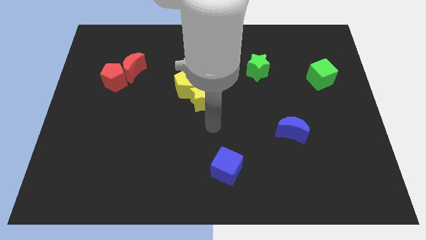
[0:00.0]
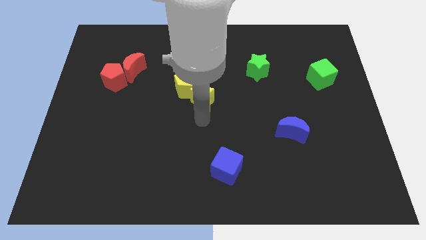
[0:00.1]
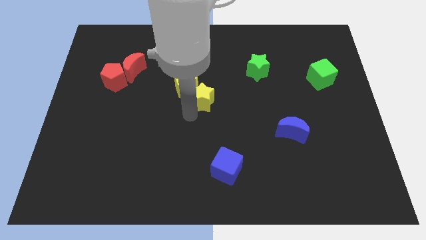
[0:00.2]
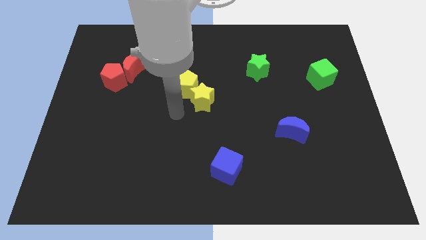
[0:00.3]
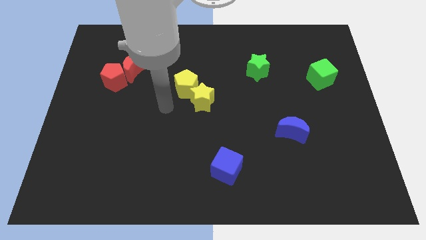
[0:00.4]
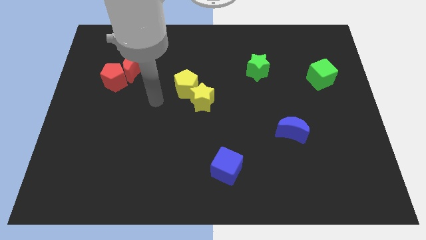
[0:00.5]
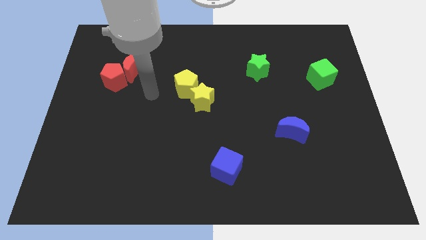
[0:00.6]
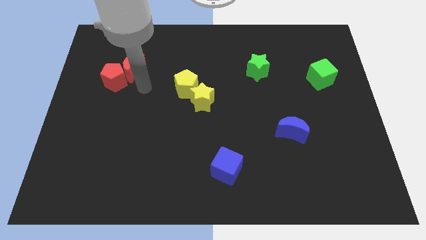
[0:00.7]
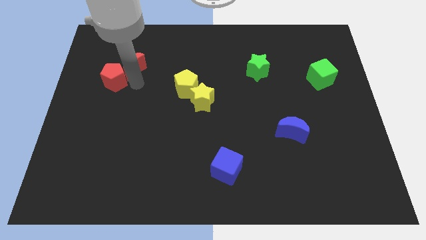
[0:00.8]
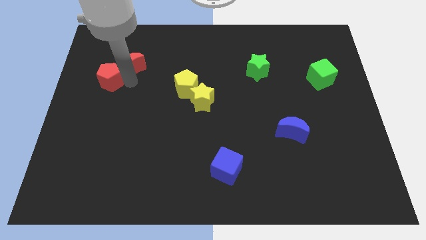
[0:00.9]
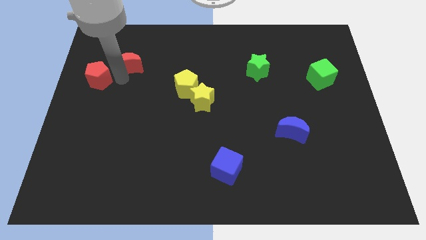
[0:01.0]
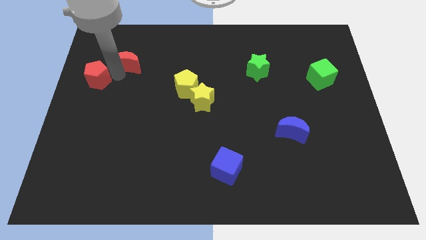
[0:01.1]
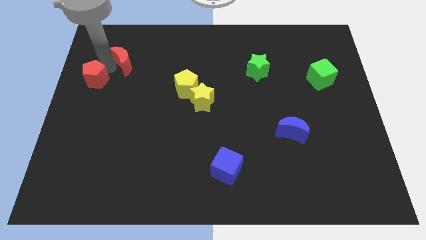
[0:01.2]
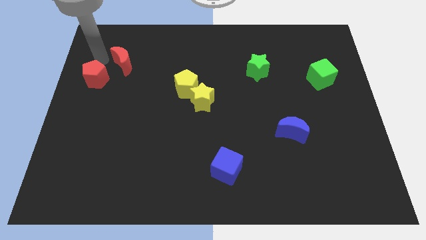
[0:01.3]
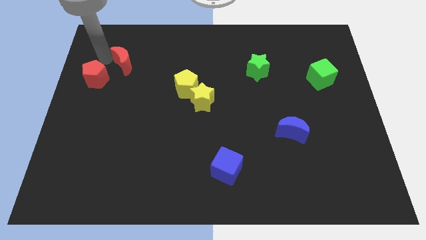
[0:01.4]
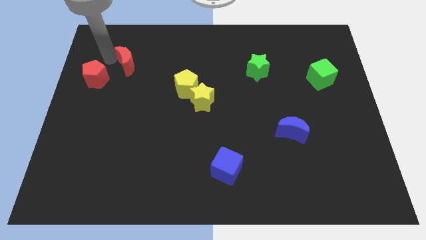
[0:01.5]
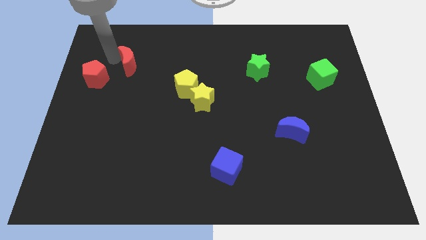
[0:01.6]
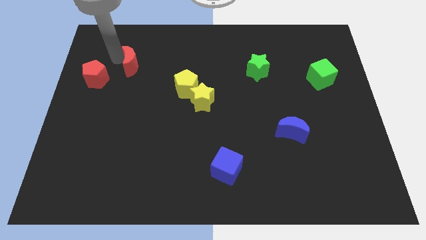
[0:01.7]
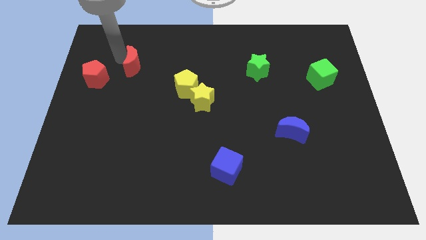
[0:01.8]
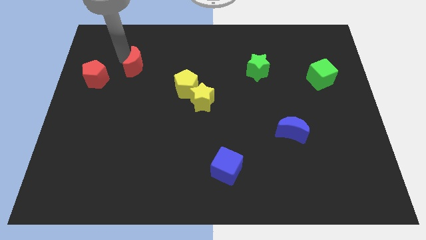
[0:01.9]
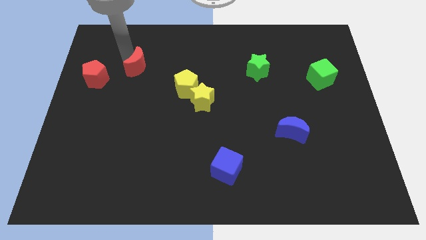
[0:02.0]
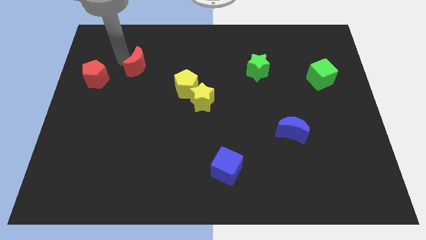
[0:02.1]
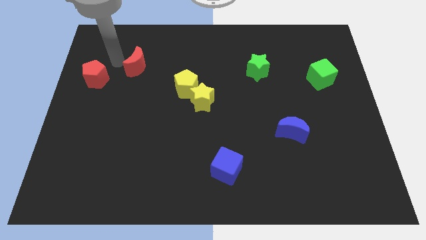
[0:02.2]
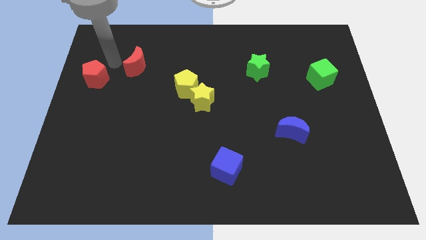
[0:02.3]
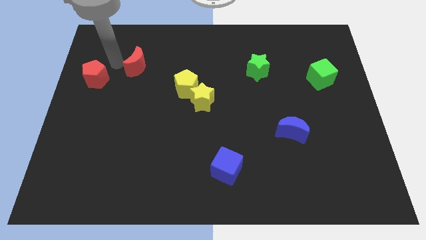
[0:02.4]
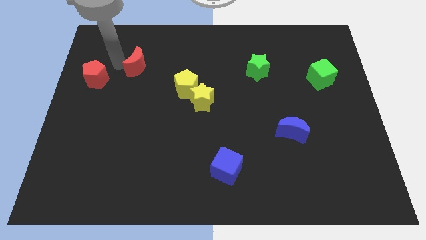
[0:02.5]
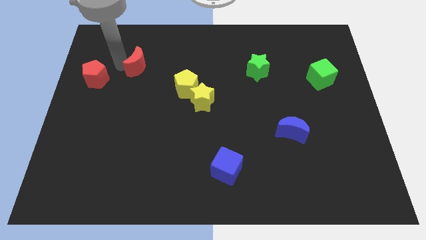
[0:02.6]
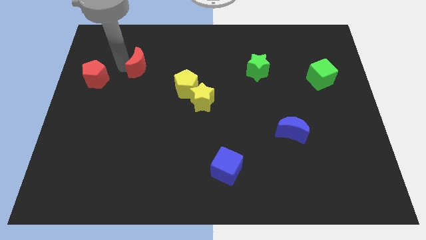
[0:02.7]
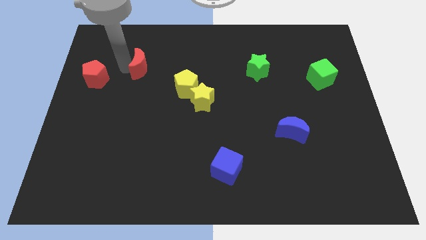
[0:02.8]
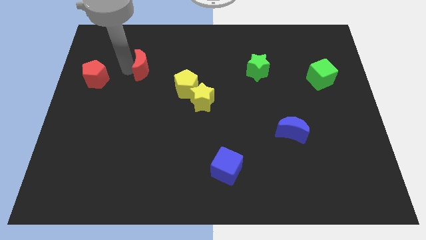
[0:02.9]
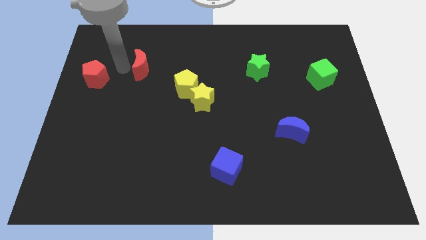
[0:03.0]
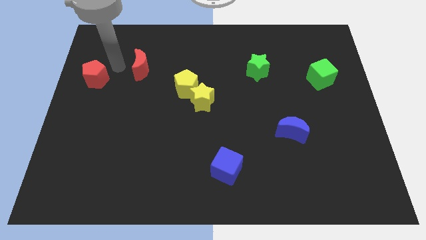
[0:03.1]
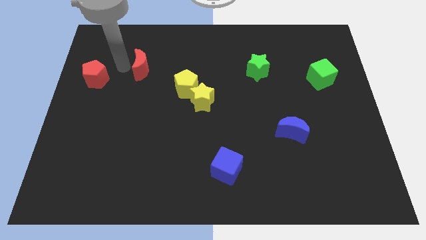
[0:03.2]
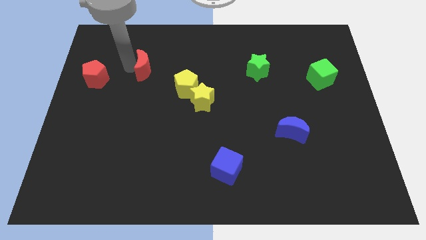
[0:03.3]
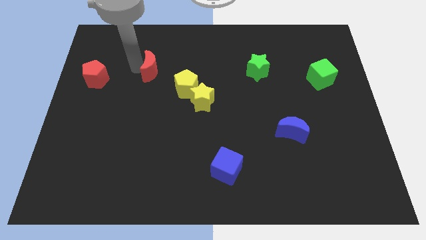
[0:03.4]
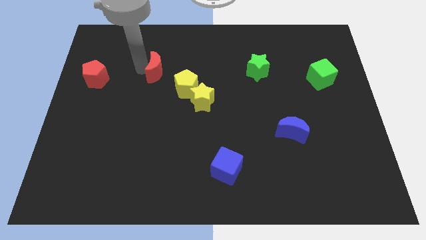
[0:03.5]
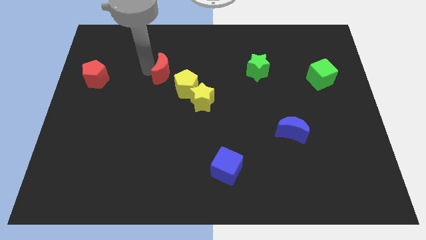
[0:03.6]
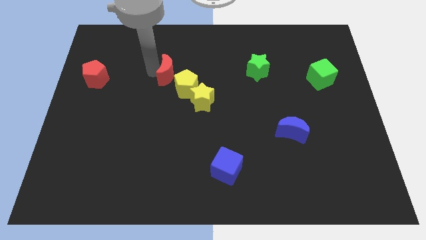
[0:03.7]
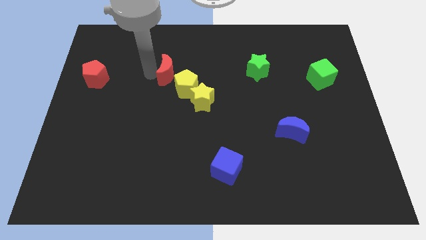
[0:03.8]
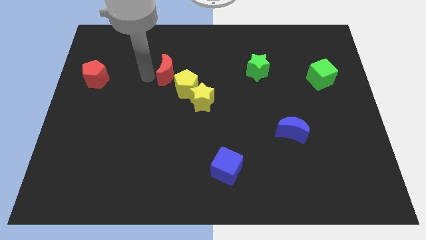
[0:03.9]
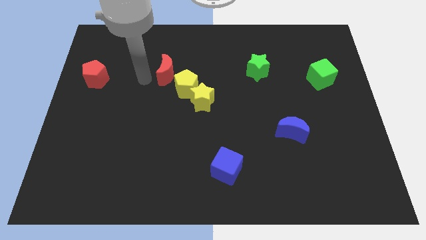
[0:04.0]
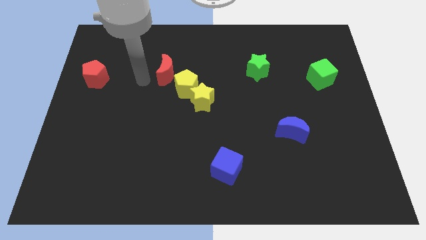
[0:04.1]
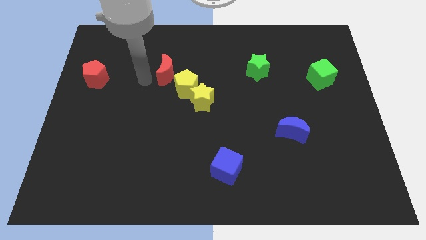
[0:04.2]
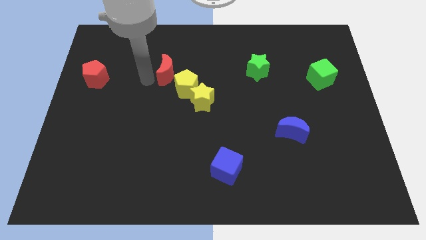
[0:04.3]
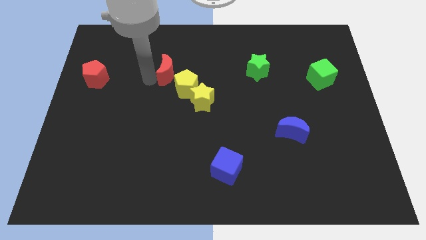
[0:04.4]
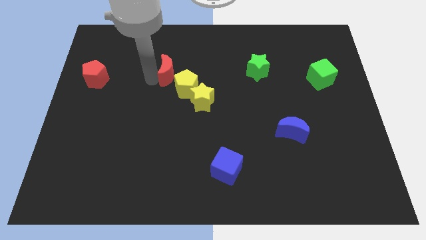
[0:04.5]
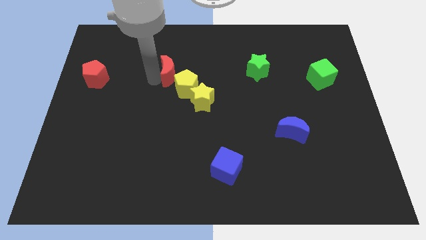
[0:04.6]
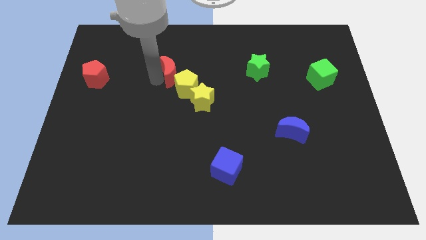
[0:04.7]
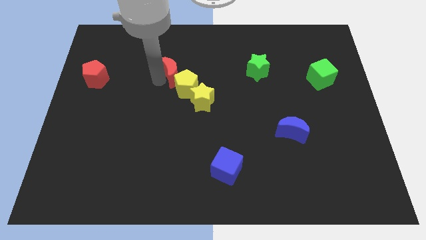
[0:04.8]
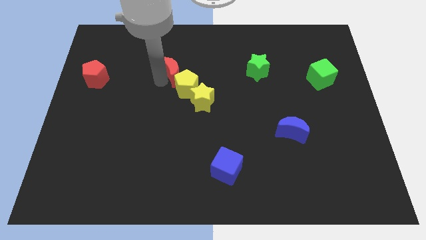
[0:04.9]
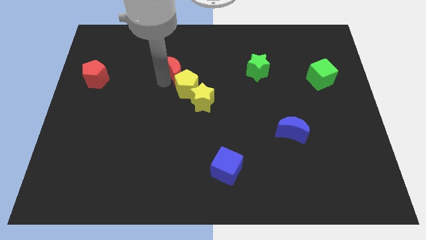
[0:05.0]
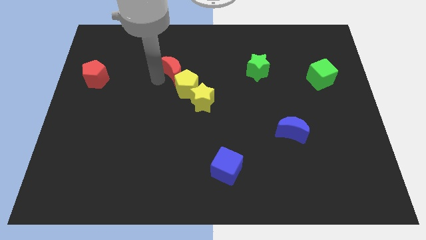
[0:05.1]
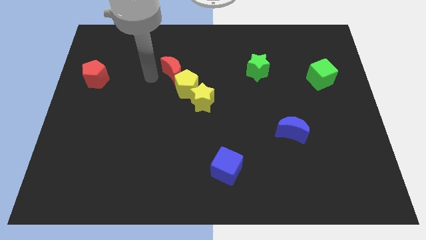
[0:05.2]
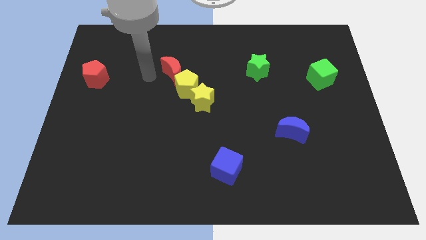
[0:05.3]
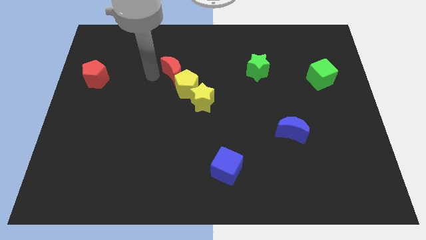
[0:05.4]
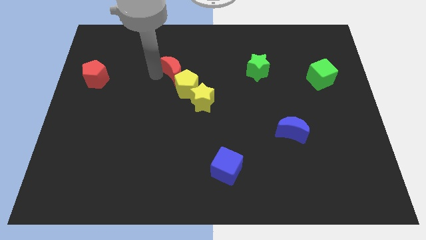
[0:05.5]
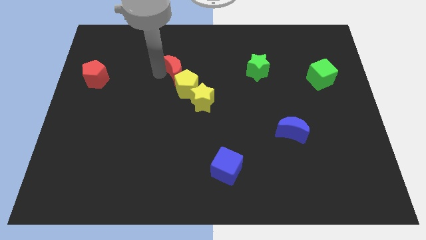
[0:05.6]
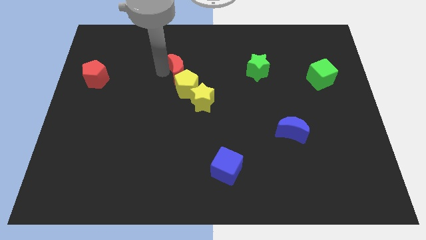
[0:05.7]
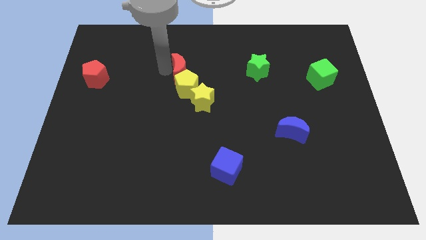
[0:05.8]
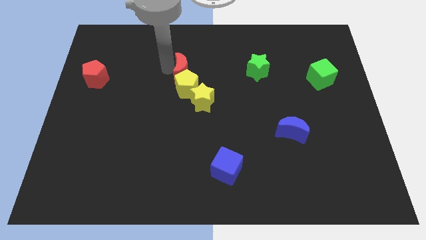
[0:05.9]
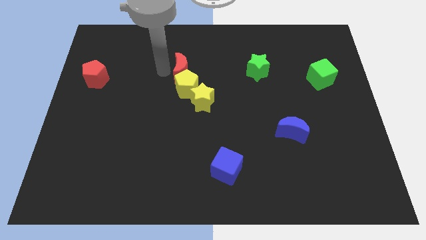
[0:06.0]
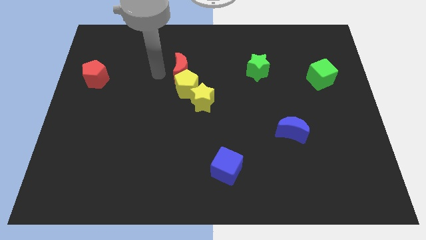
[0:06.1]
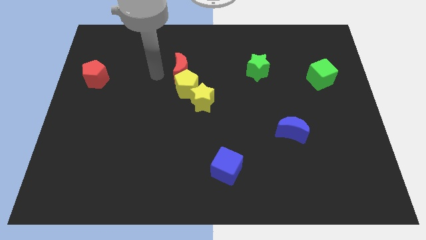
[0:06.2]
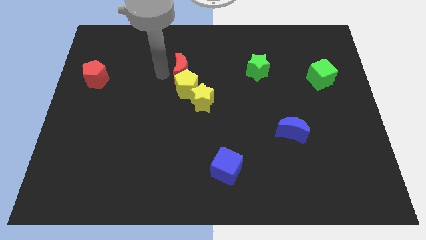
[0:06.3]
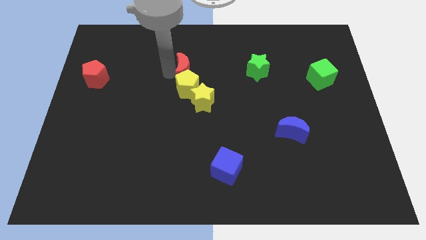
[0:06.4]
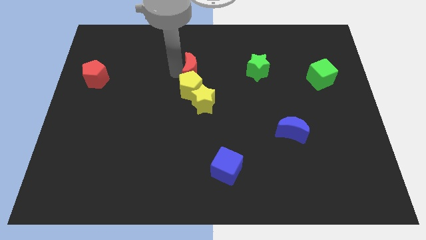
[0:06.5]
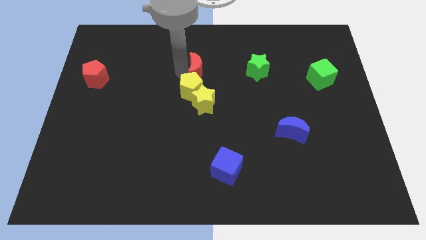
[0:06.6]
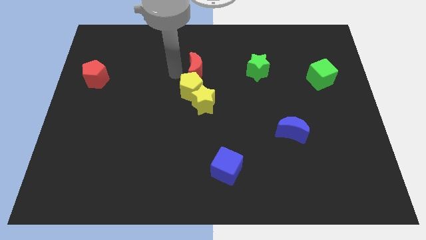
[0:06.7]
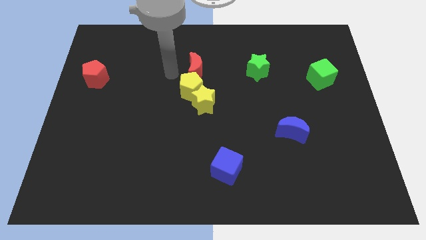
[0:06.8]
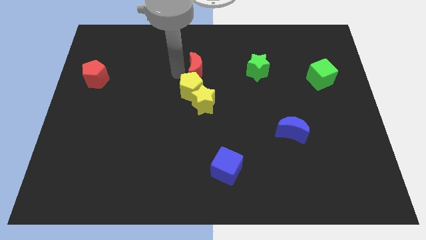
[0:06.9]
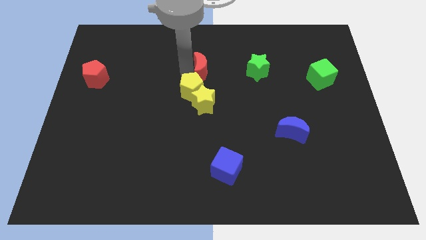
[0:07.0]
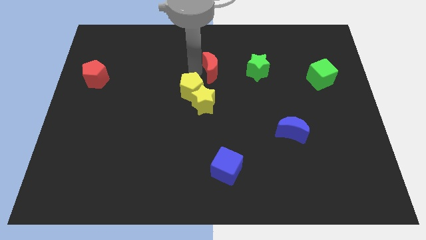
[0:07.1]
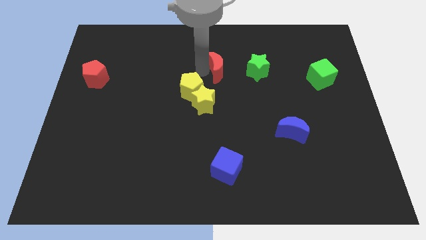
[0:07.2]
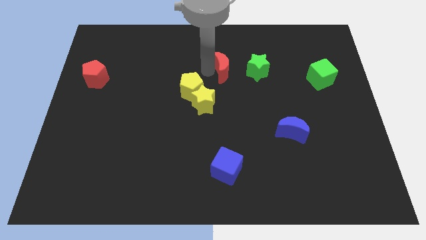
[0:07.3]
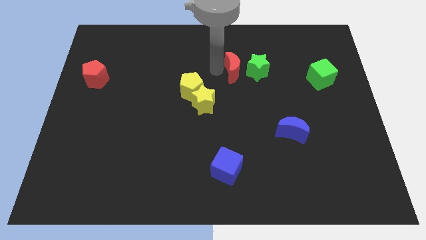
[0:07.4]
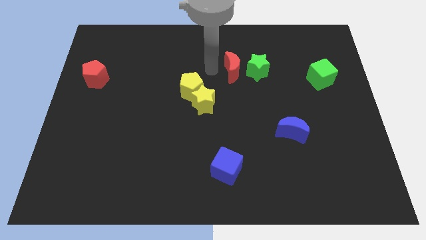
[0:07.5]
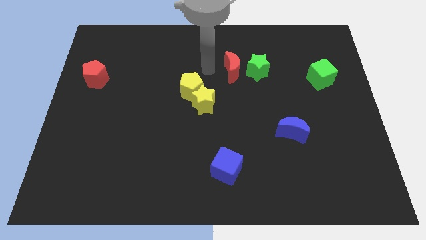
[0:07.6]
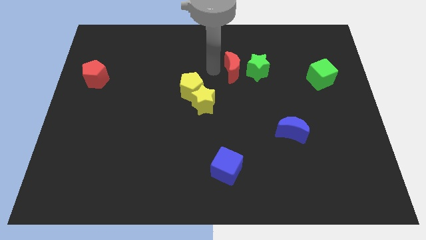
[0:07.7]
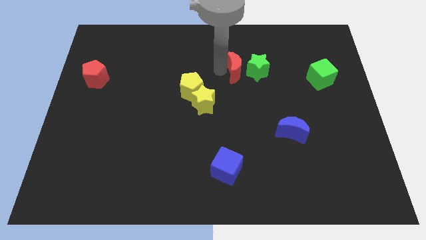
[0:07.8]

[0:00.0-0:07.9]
push the red moon to the green star
